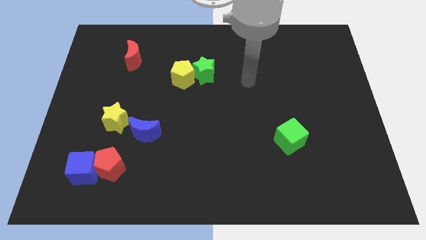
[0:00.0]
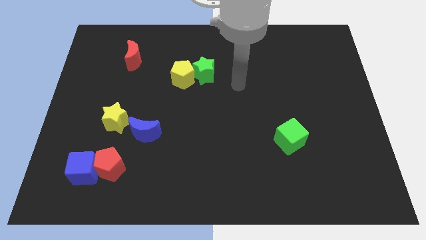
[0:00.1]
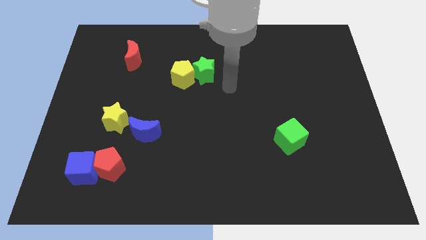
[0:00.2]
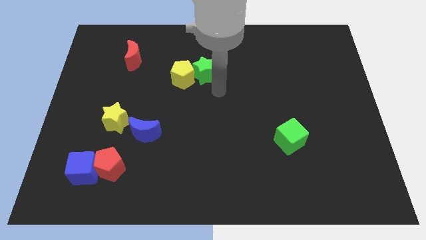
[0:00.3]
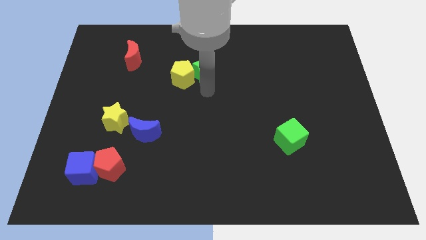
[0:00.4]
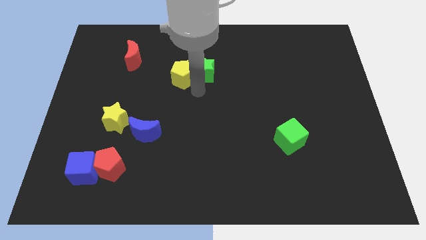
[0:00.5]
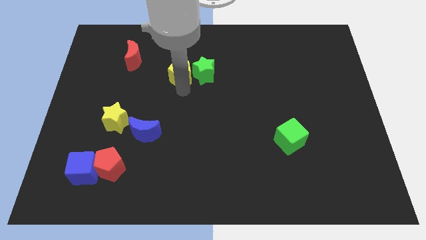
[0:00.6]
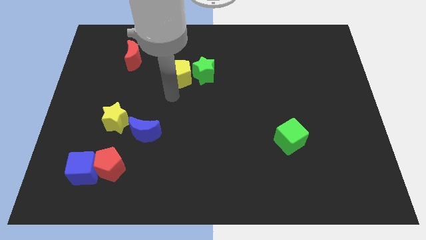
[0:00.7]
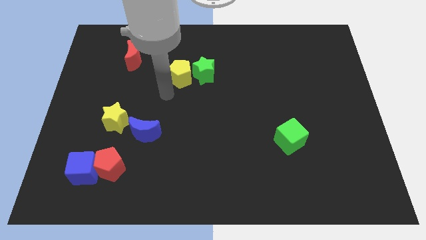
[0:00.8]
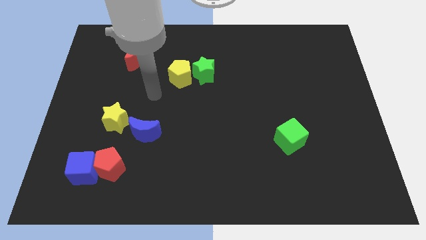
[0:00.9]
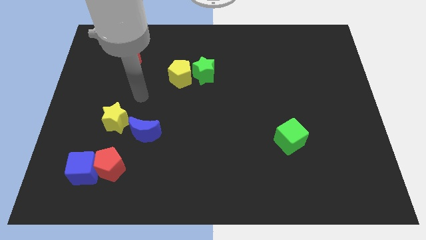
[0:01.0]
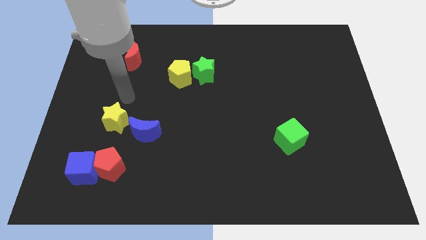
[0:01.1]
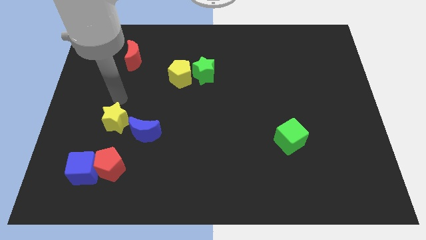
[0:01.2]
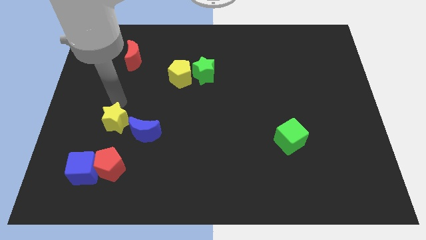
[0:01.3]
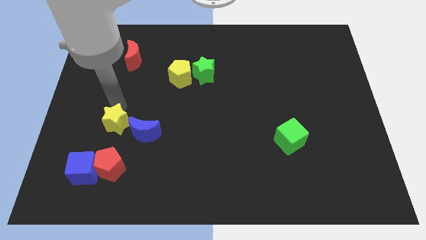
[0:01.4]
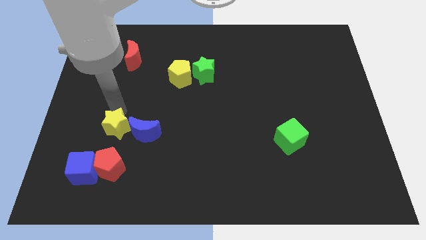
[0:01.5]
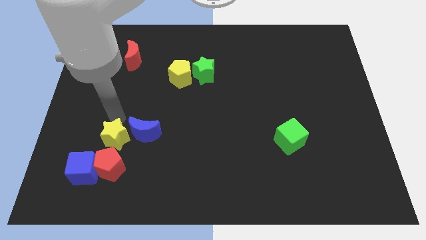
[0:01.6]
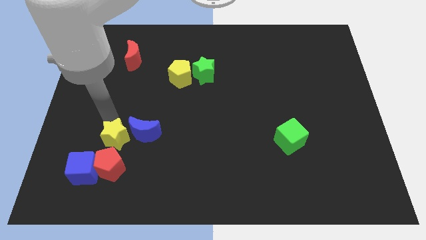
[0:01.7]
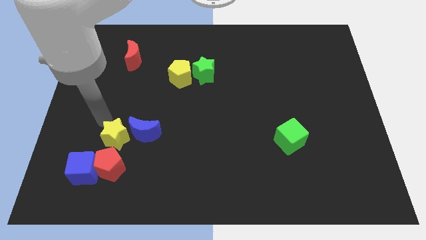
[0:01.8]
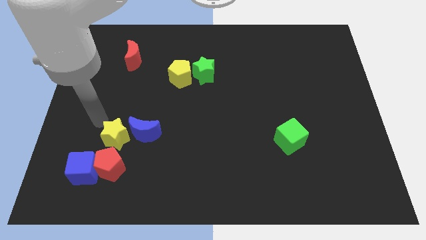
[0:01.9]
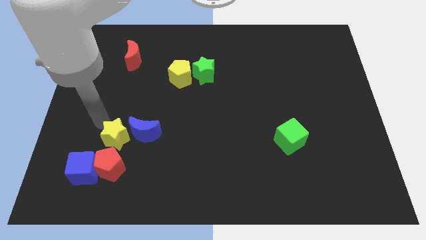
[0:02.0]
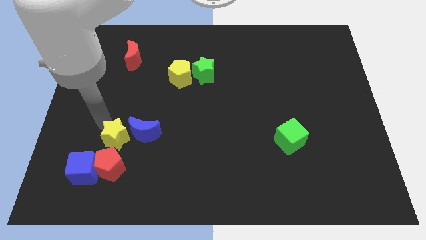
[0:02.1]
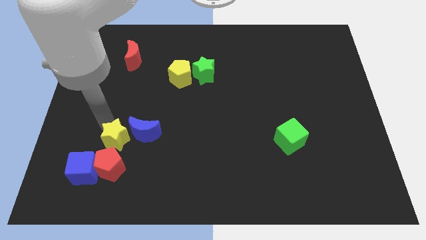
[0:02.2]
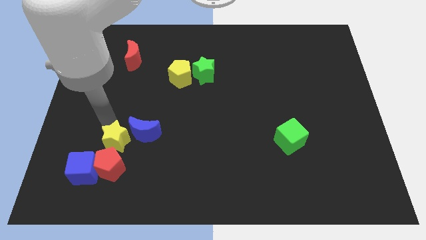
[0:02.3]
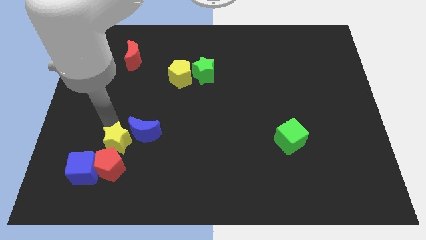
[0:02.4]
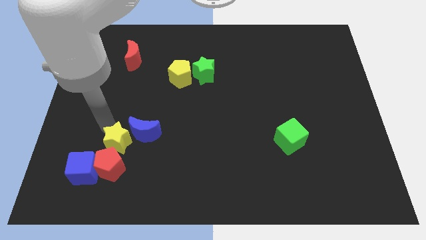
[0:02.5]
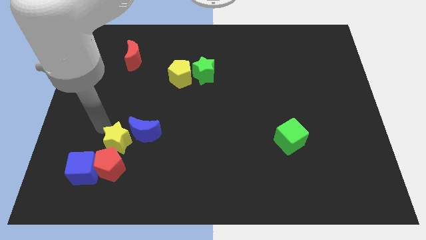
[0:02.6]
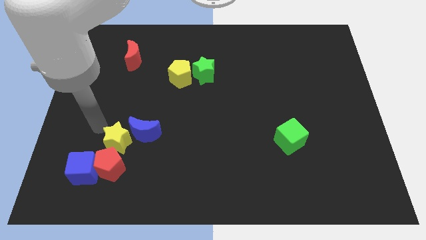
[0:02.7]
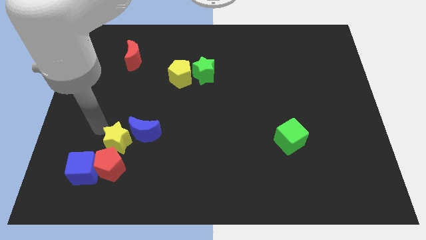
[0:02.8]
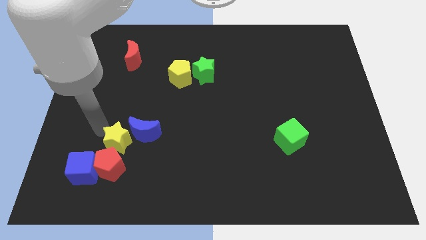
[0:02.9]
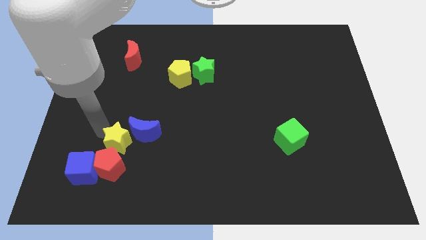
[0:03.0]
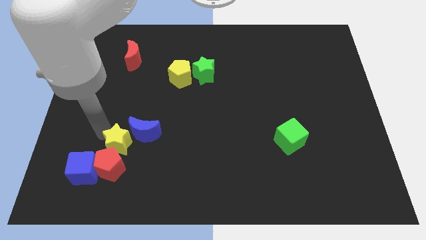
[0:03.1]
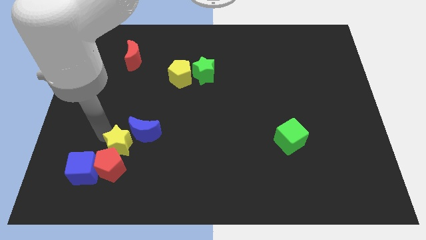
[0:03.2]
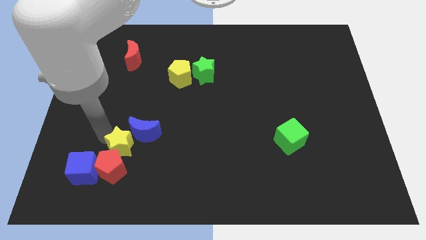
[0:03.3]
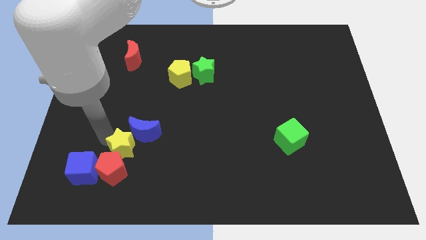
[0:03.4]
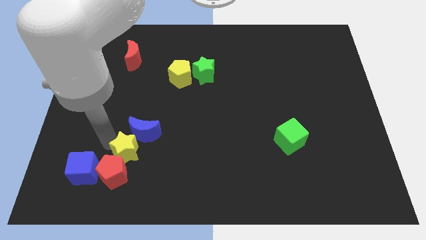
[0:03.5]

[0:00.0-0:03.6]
slide the yellow star downwards and right slightly

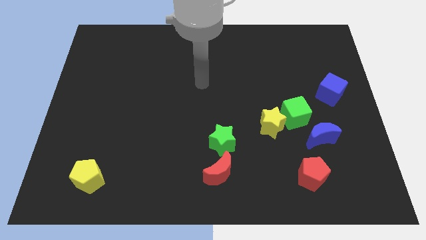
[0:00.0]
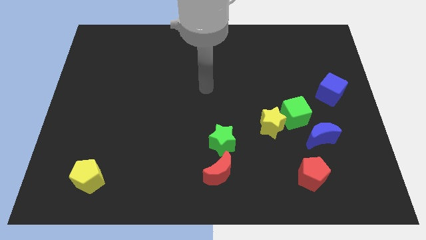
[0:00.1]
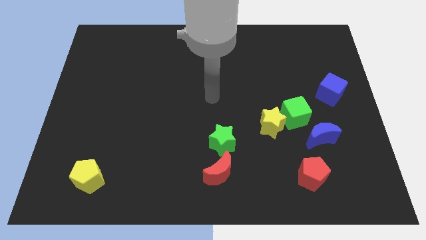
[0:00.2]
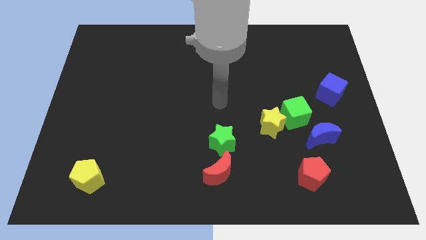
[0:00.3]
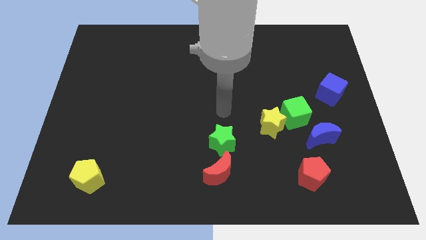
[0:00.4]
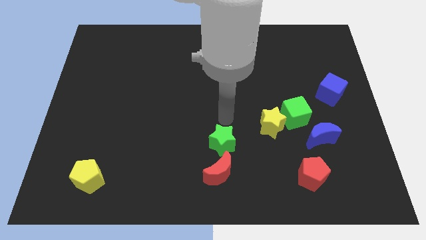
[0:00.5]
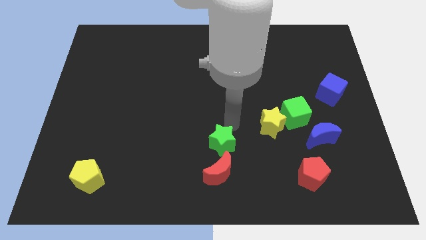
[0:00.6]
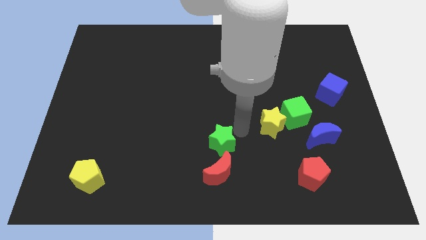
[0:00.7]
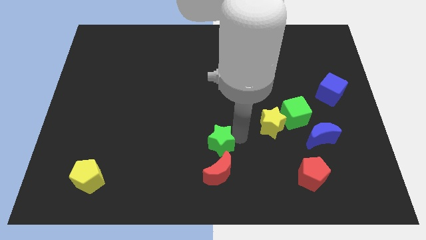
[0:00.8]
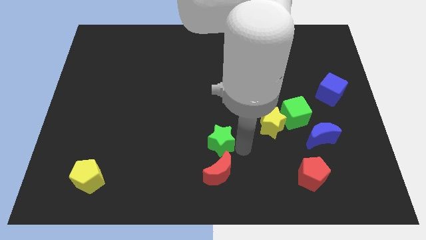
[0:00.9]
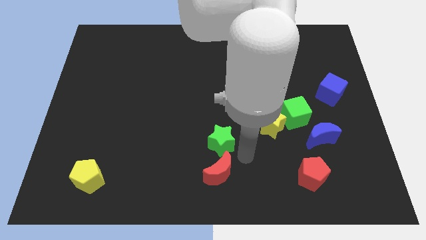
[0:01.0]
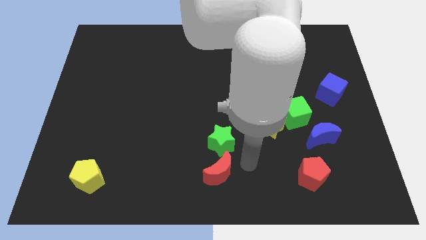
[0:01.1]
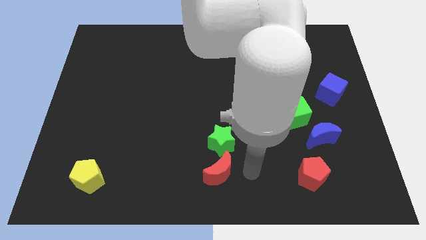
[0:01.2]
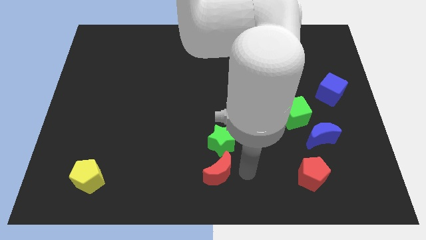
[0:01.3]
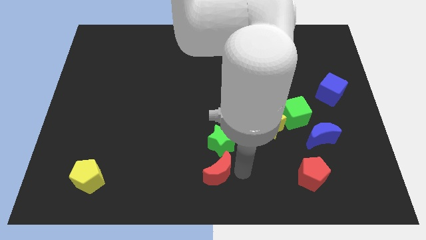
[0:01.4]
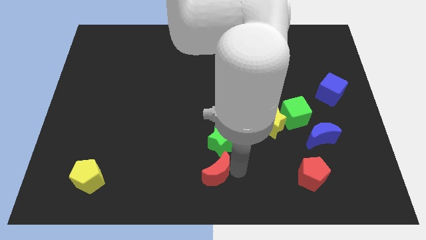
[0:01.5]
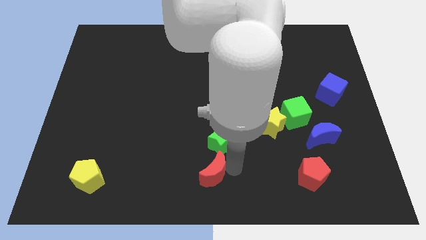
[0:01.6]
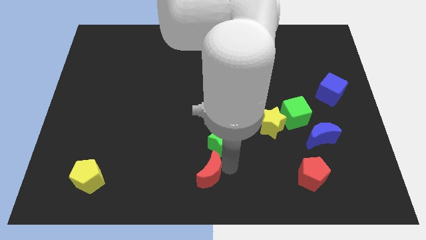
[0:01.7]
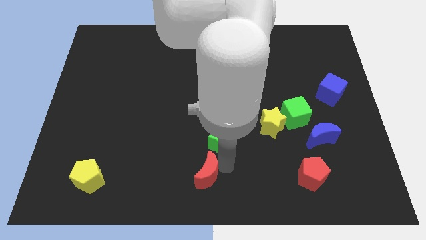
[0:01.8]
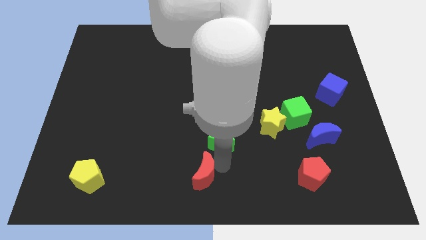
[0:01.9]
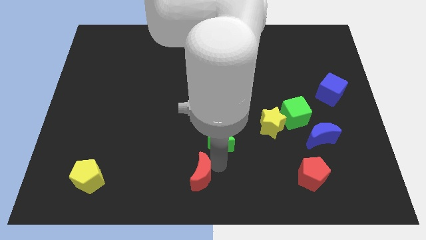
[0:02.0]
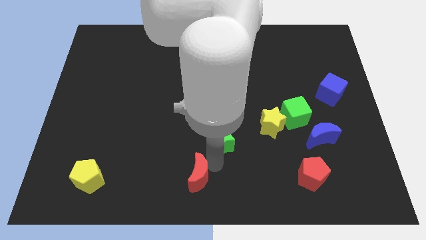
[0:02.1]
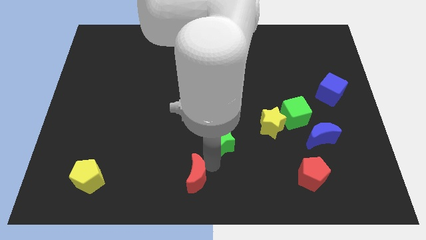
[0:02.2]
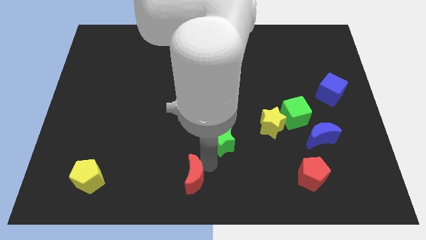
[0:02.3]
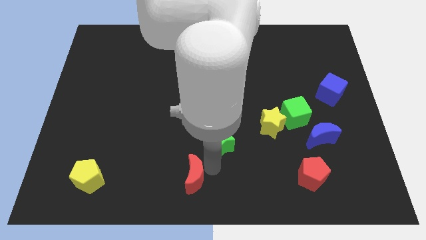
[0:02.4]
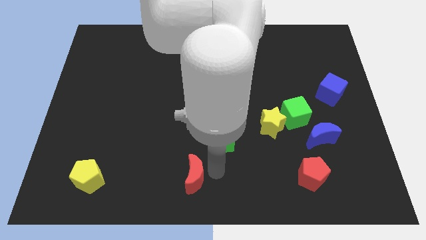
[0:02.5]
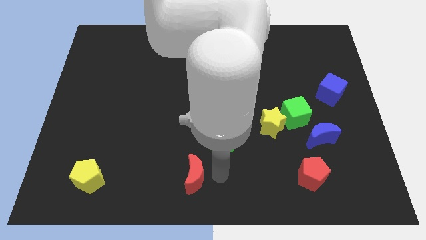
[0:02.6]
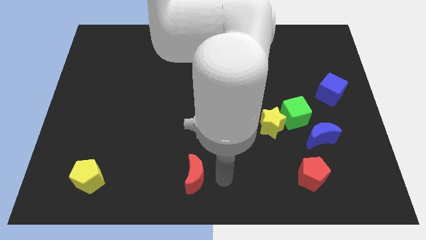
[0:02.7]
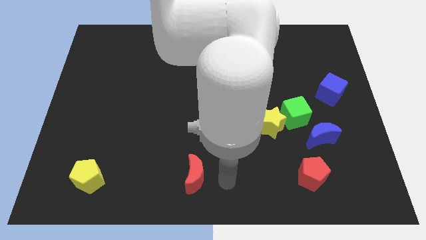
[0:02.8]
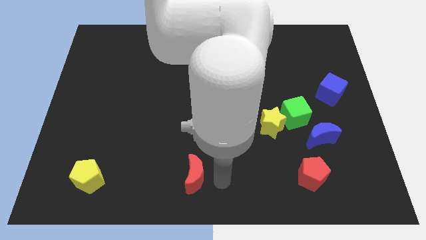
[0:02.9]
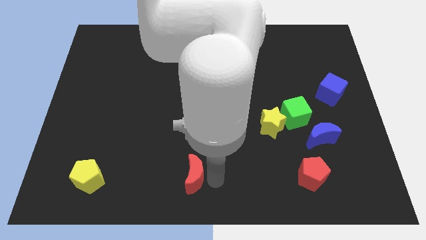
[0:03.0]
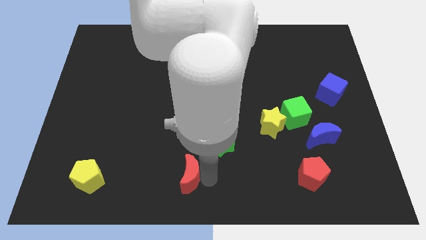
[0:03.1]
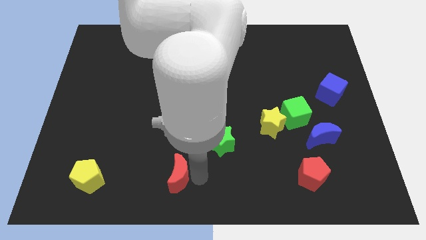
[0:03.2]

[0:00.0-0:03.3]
slide the red moon a bit left

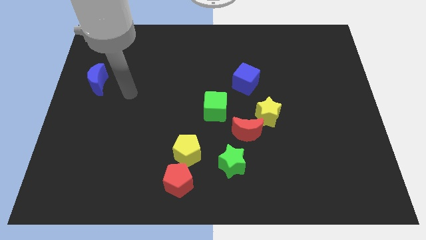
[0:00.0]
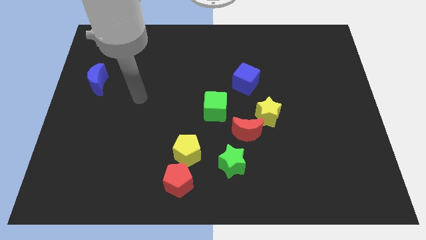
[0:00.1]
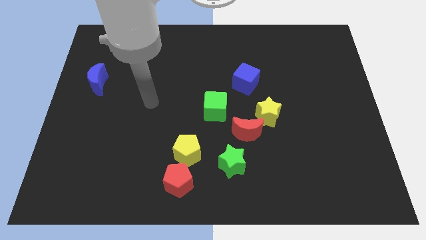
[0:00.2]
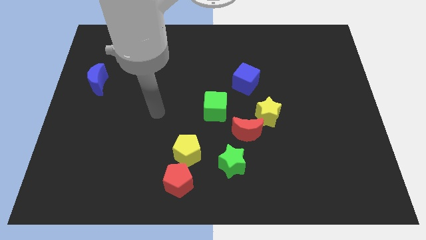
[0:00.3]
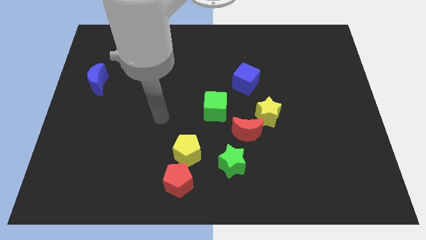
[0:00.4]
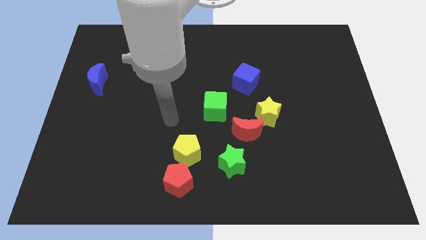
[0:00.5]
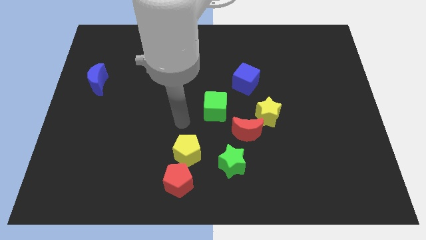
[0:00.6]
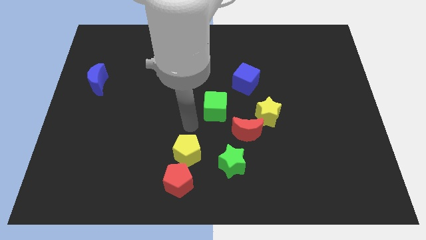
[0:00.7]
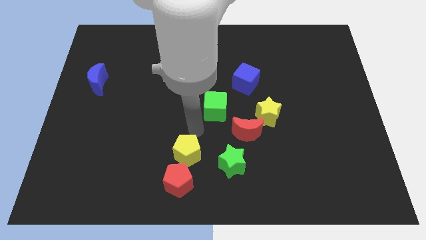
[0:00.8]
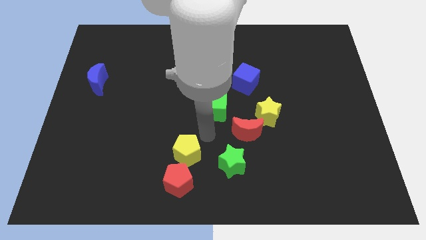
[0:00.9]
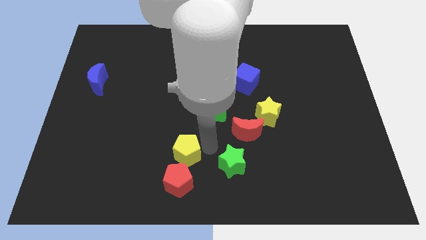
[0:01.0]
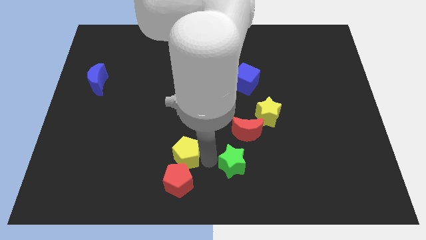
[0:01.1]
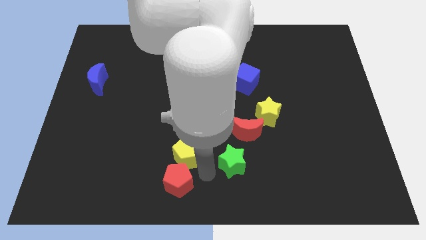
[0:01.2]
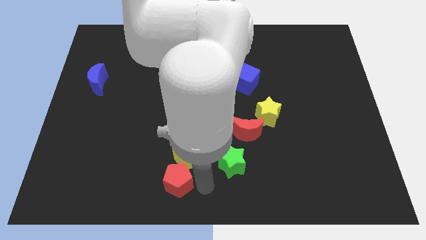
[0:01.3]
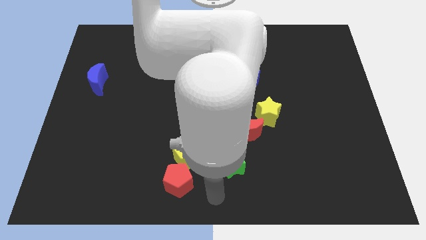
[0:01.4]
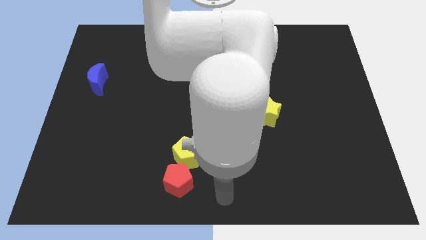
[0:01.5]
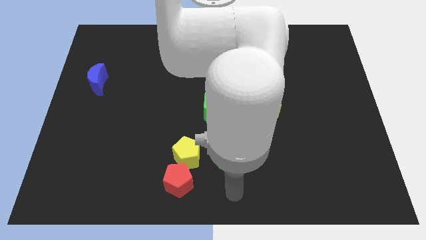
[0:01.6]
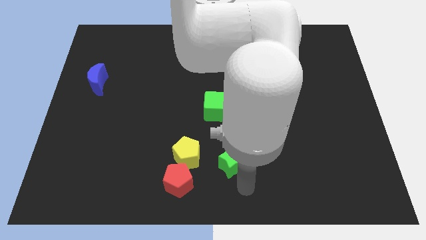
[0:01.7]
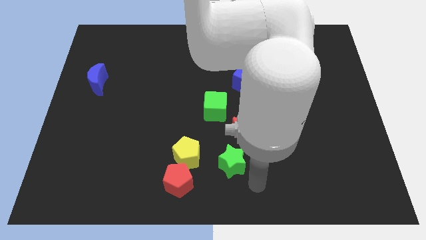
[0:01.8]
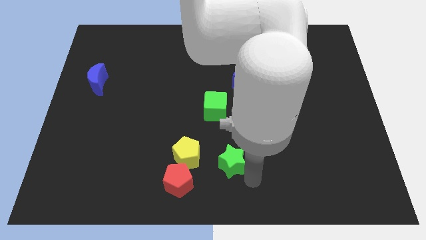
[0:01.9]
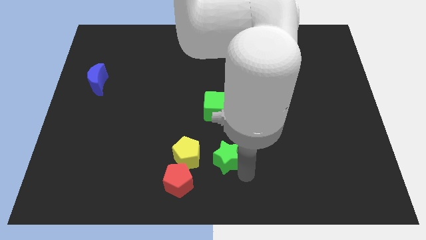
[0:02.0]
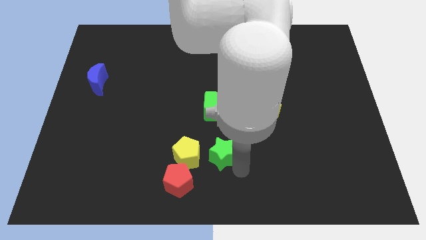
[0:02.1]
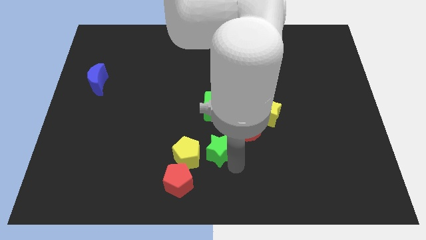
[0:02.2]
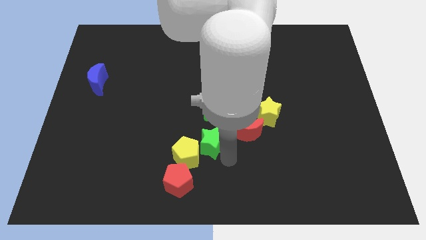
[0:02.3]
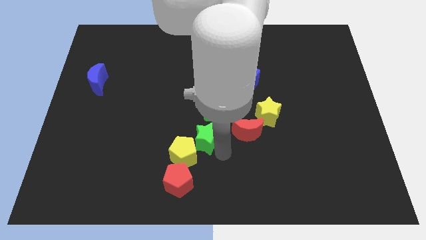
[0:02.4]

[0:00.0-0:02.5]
move the green star somewhat diagonally up and left
